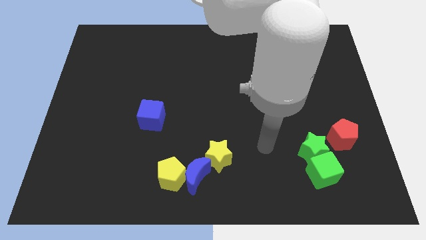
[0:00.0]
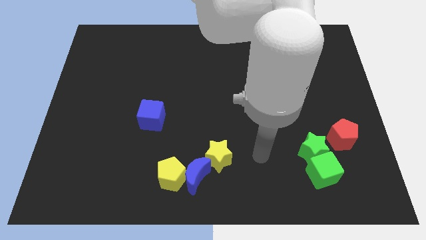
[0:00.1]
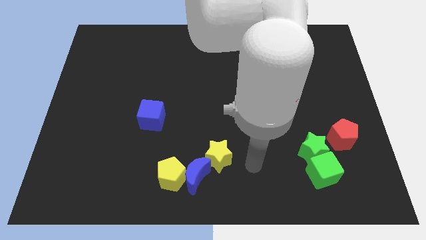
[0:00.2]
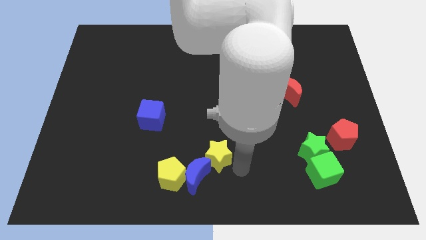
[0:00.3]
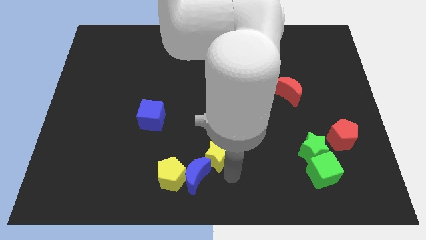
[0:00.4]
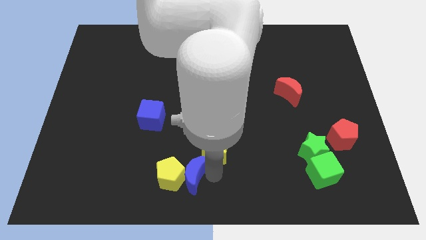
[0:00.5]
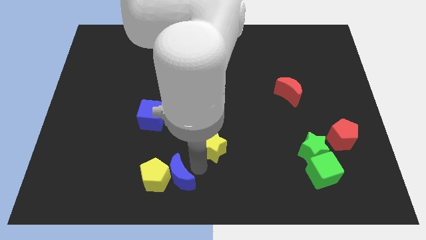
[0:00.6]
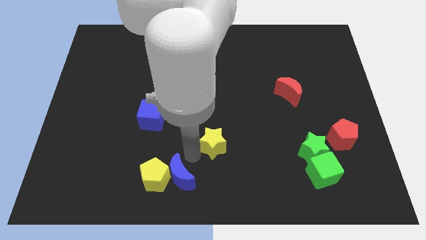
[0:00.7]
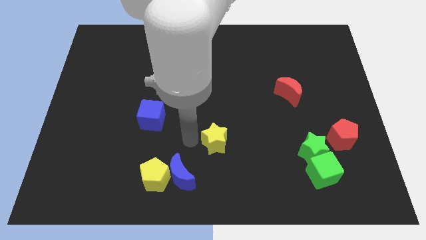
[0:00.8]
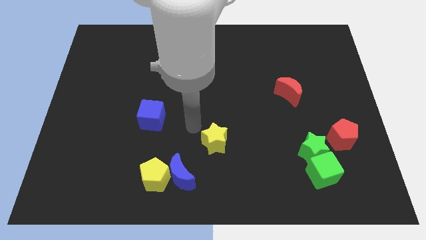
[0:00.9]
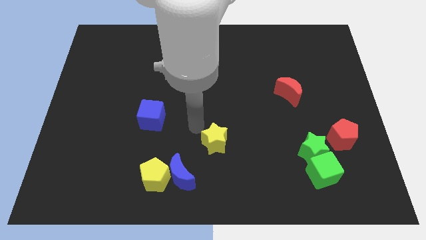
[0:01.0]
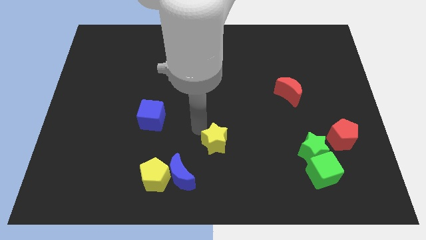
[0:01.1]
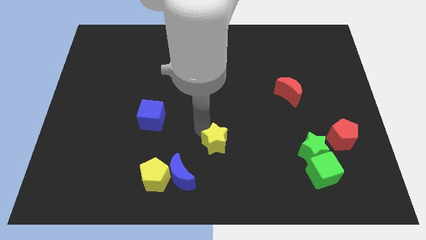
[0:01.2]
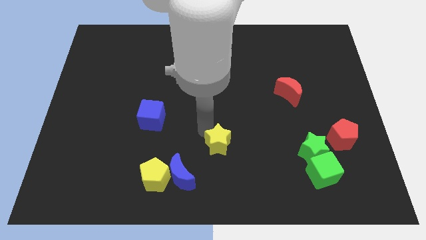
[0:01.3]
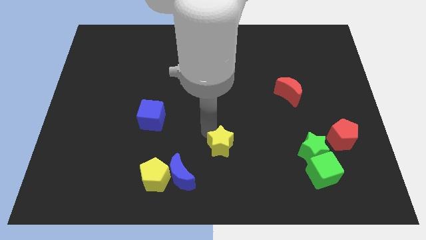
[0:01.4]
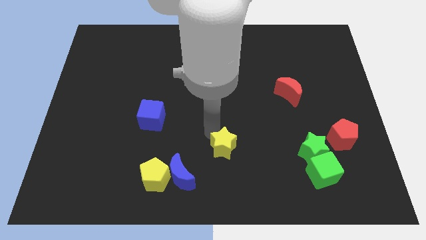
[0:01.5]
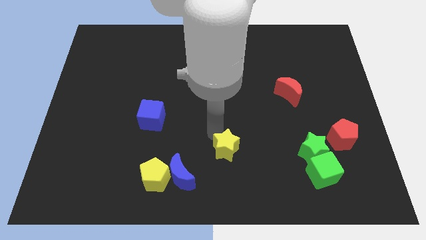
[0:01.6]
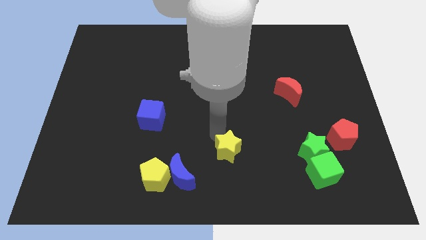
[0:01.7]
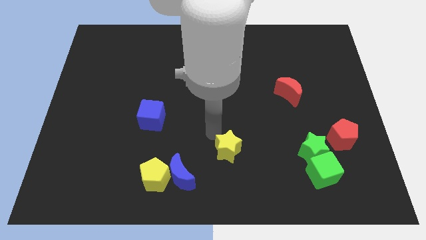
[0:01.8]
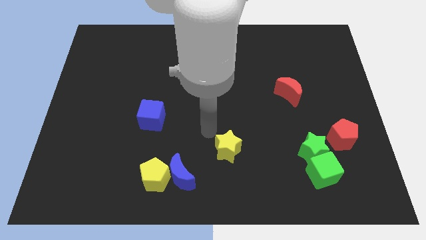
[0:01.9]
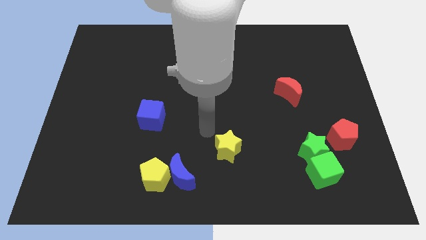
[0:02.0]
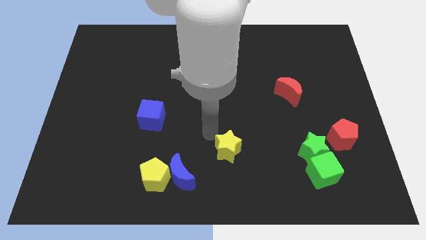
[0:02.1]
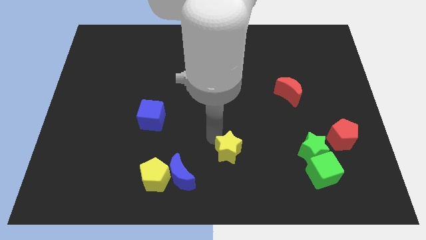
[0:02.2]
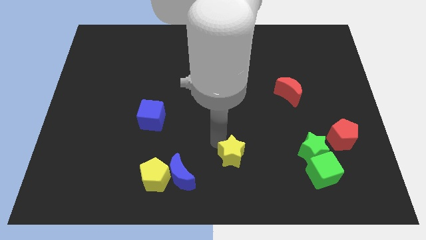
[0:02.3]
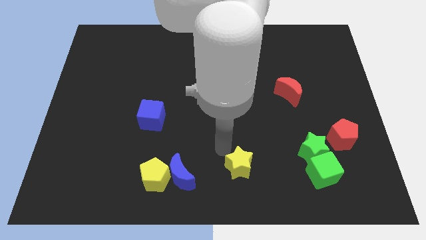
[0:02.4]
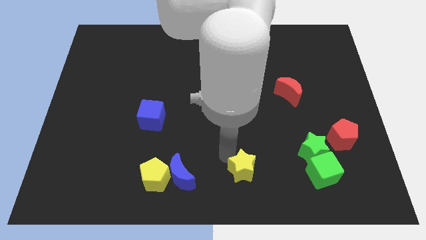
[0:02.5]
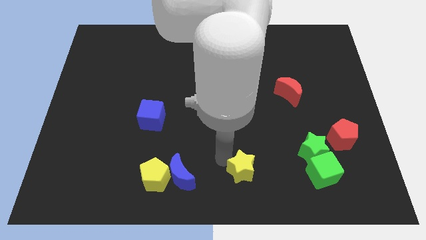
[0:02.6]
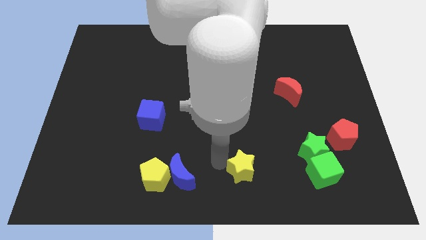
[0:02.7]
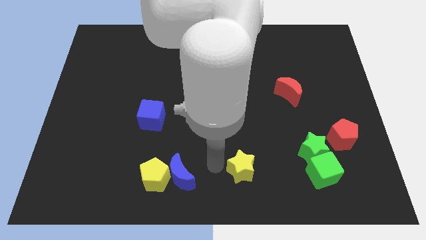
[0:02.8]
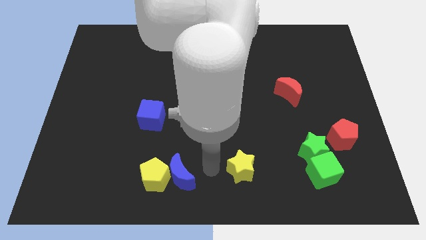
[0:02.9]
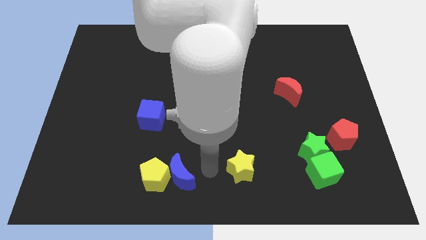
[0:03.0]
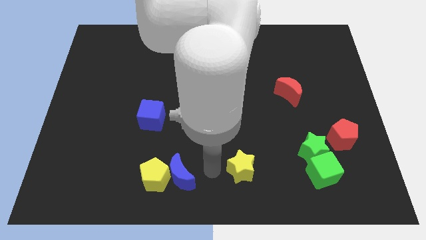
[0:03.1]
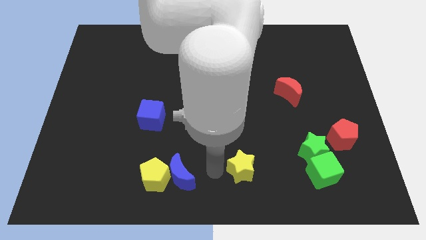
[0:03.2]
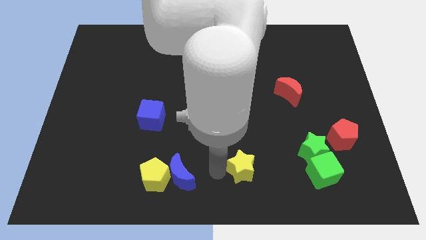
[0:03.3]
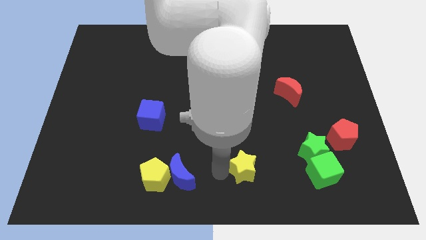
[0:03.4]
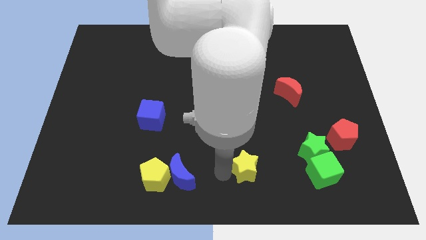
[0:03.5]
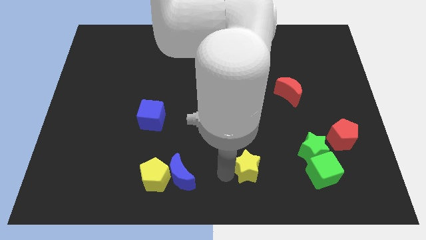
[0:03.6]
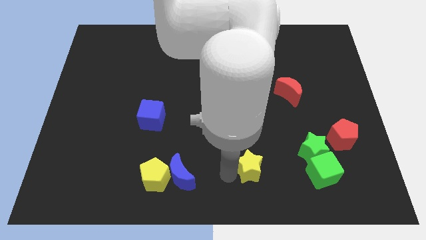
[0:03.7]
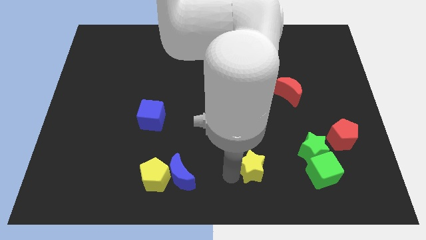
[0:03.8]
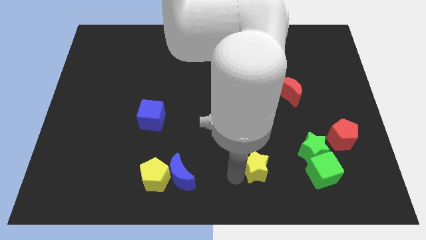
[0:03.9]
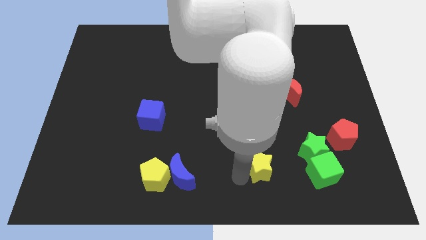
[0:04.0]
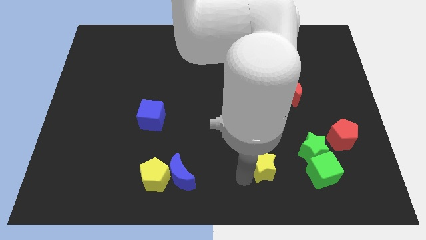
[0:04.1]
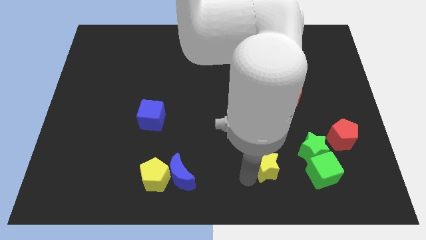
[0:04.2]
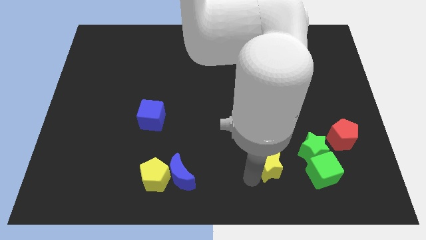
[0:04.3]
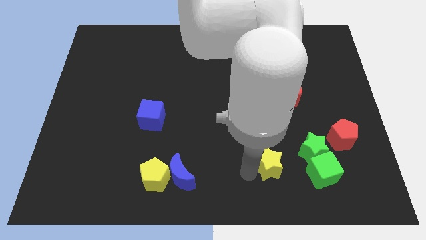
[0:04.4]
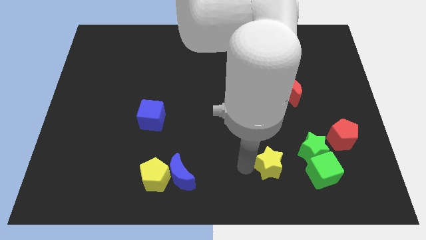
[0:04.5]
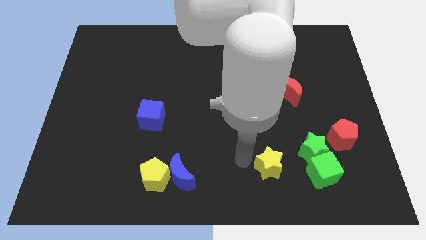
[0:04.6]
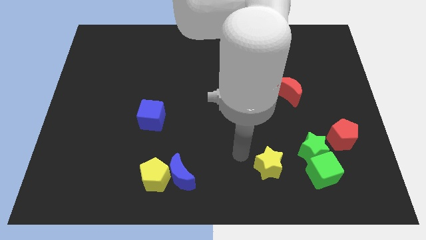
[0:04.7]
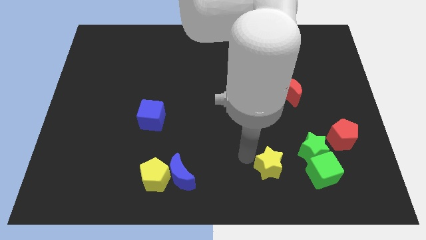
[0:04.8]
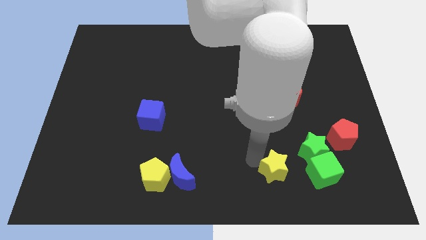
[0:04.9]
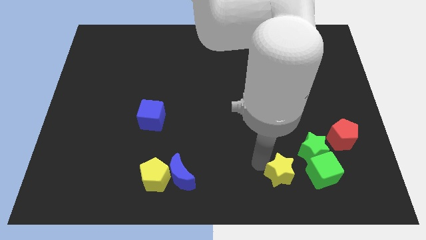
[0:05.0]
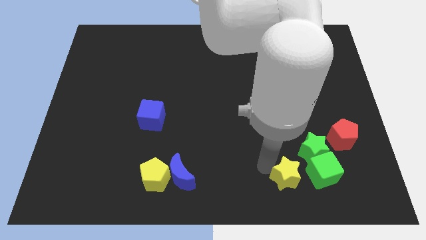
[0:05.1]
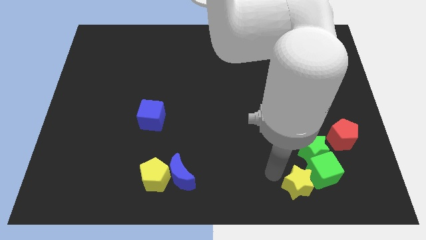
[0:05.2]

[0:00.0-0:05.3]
push the yellow star towards the green cube

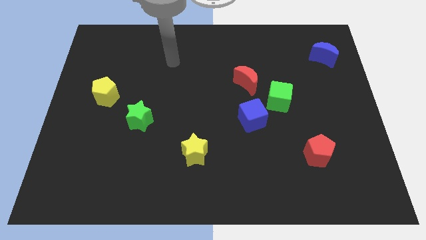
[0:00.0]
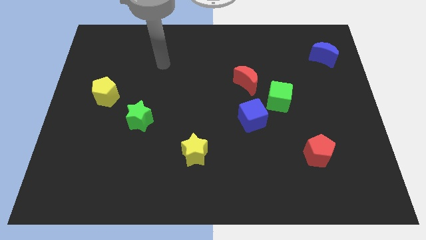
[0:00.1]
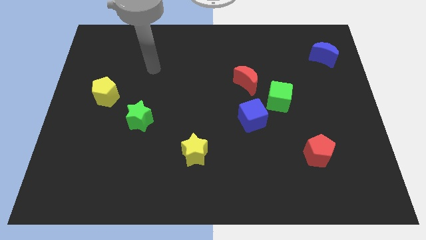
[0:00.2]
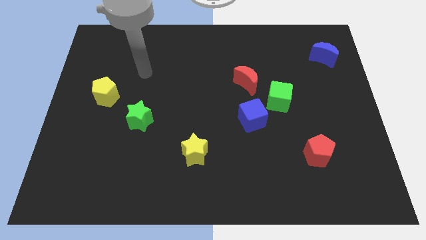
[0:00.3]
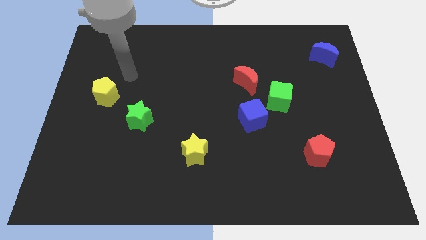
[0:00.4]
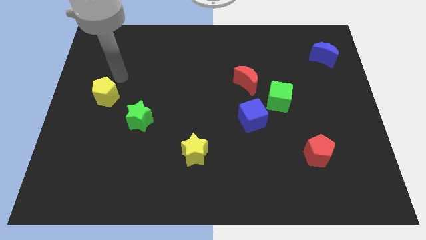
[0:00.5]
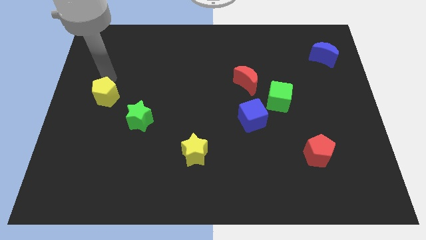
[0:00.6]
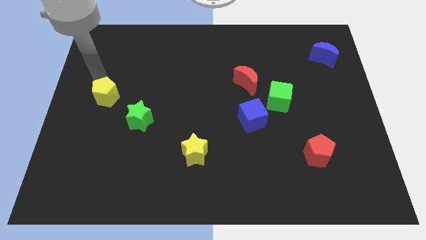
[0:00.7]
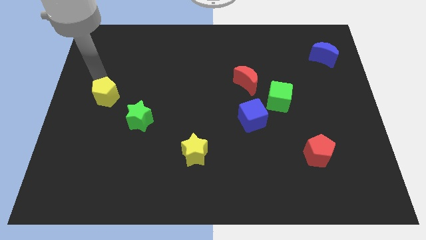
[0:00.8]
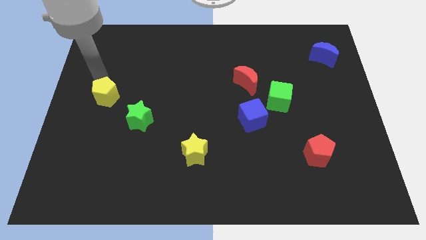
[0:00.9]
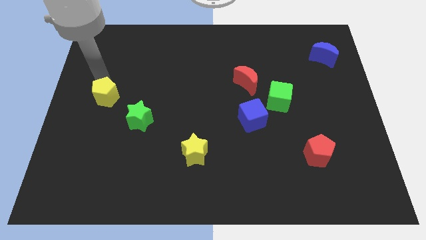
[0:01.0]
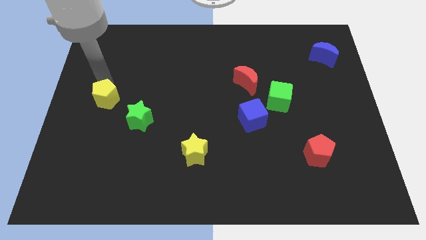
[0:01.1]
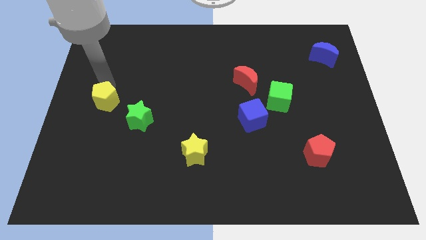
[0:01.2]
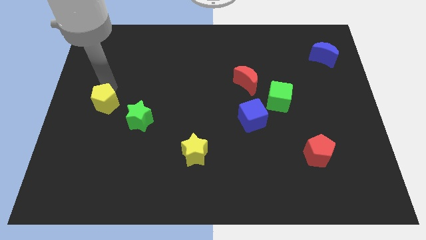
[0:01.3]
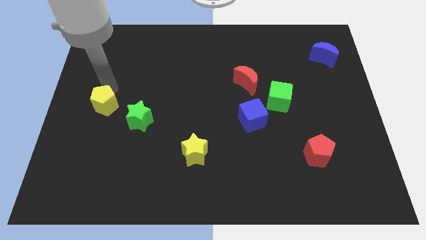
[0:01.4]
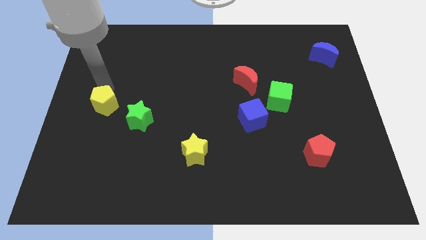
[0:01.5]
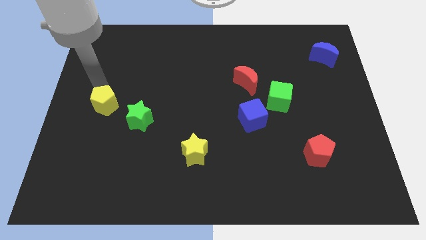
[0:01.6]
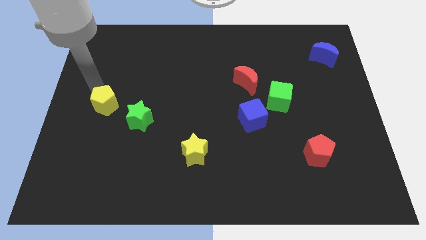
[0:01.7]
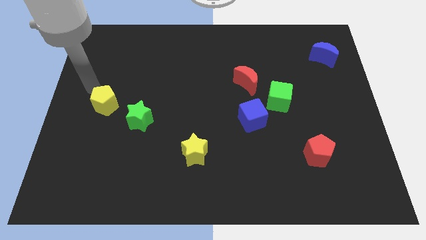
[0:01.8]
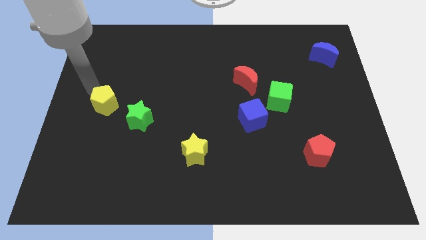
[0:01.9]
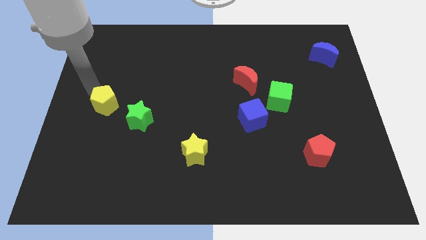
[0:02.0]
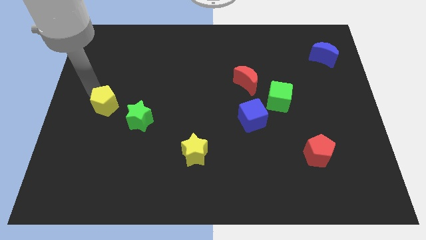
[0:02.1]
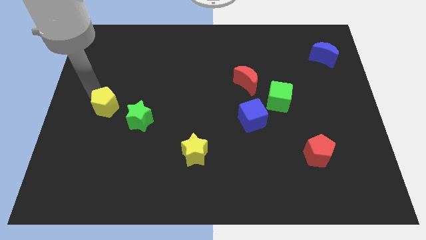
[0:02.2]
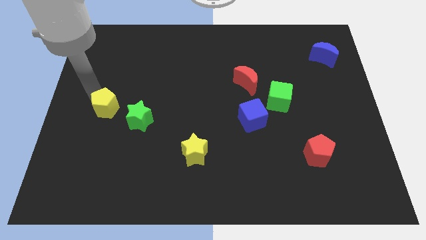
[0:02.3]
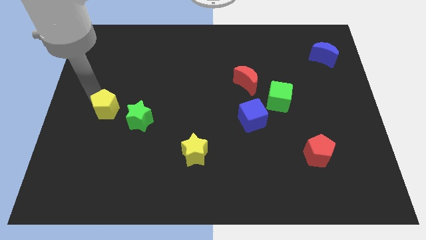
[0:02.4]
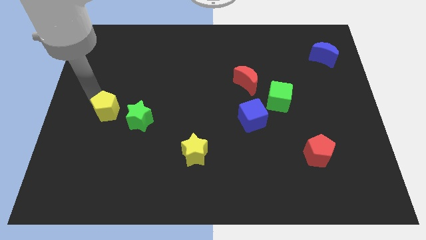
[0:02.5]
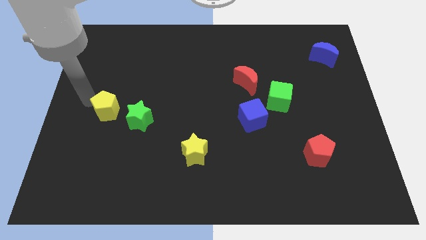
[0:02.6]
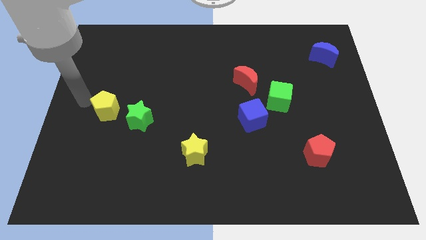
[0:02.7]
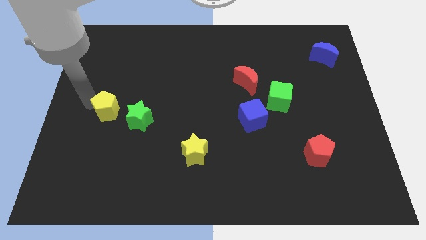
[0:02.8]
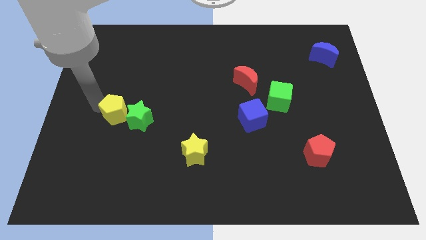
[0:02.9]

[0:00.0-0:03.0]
push the yellow pentagon towards the green star
